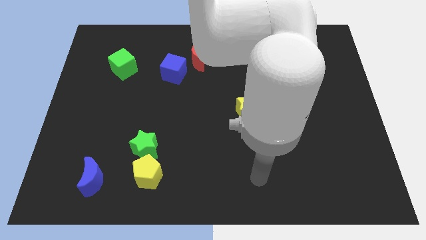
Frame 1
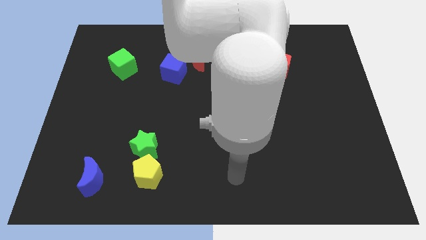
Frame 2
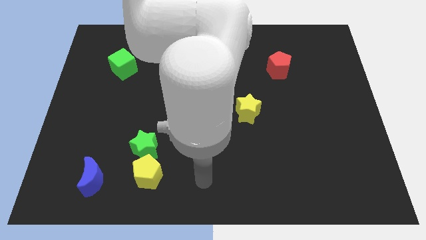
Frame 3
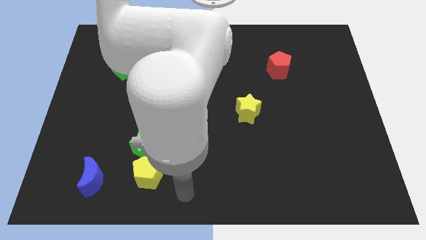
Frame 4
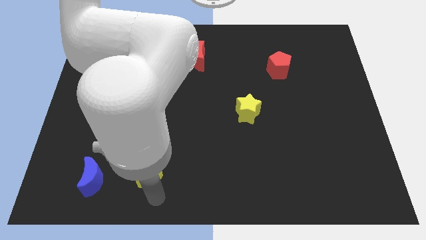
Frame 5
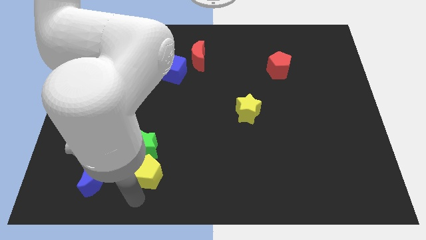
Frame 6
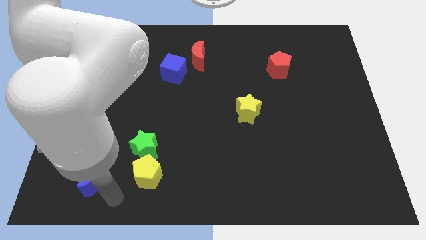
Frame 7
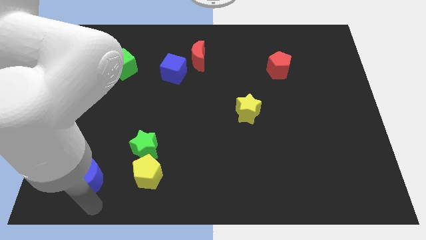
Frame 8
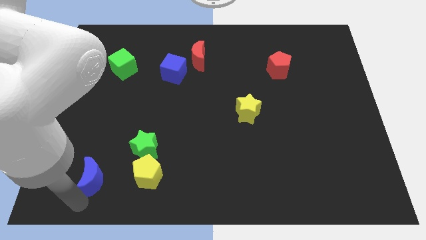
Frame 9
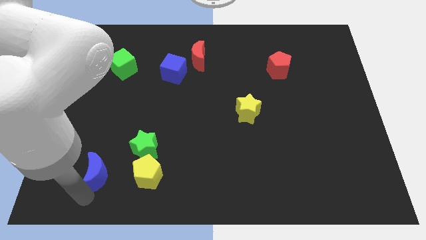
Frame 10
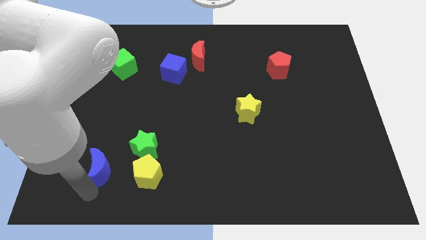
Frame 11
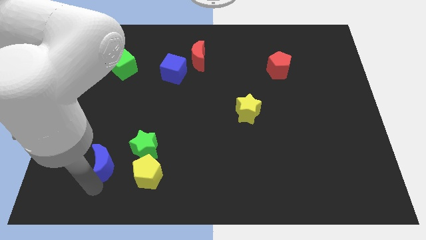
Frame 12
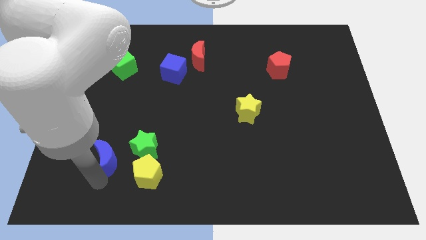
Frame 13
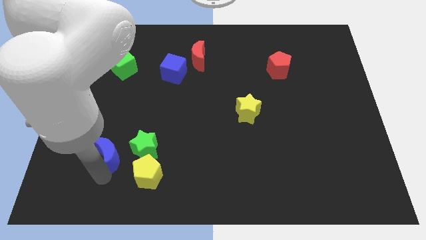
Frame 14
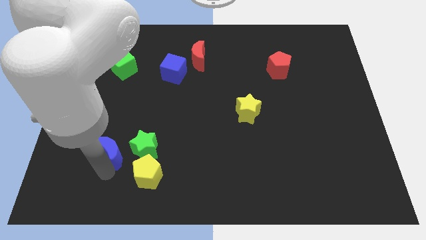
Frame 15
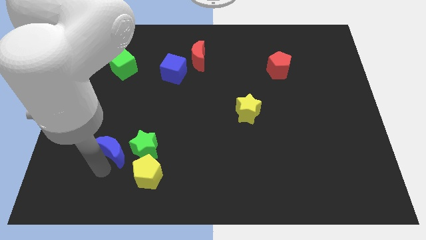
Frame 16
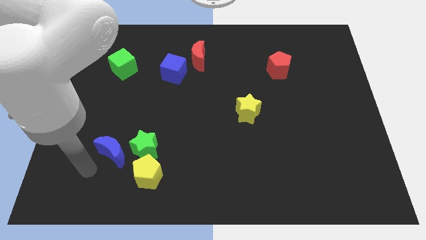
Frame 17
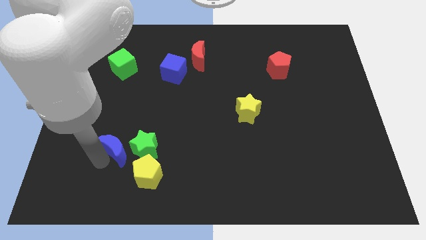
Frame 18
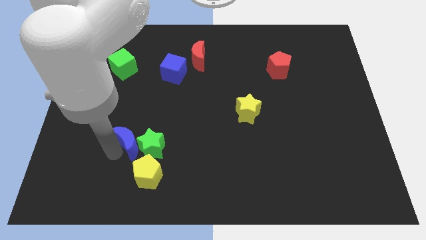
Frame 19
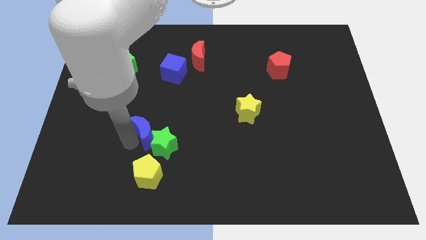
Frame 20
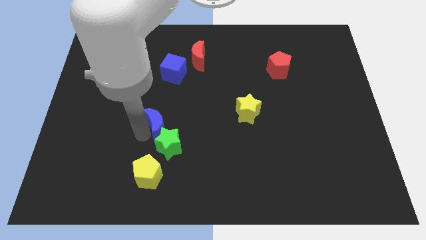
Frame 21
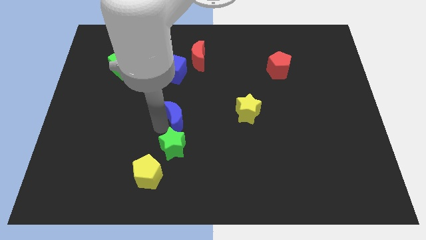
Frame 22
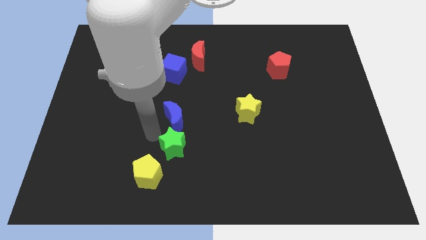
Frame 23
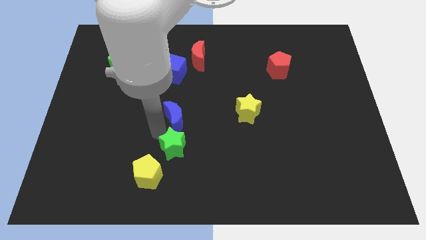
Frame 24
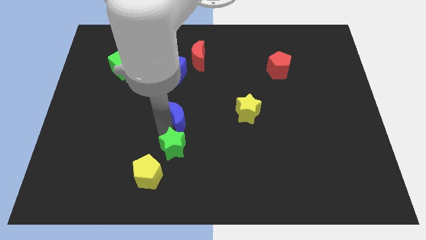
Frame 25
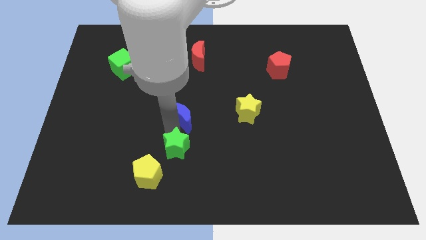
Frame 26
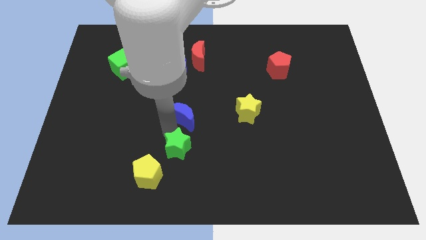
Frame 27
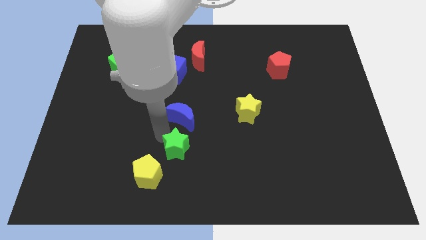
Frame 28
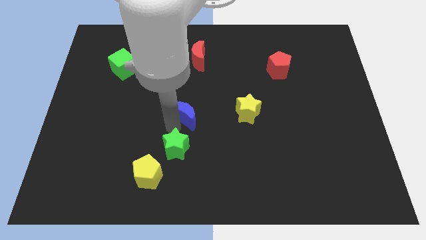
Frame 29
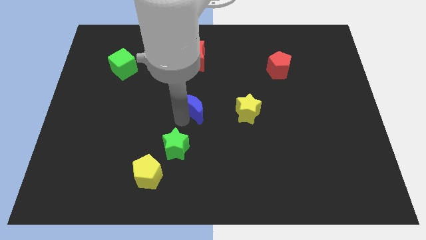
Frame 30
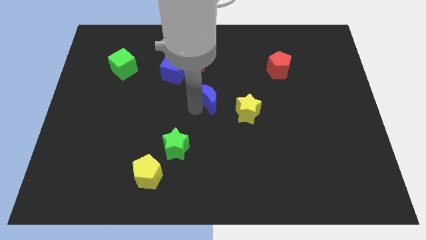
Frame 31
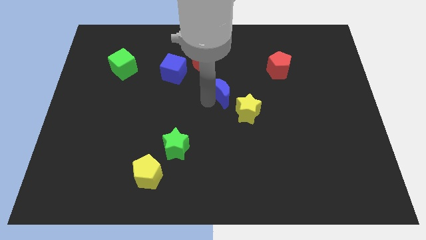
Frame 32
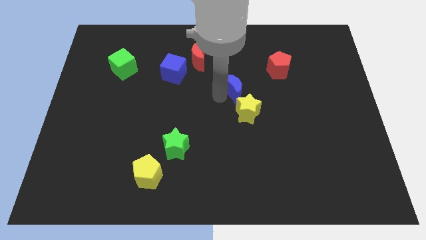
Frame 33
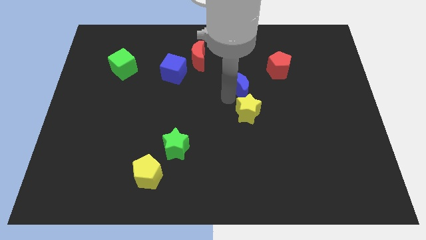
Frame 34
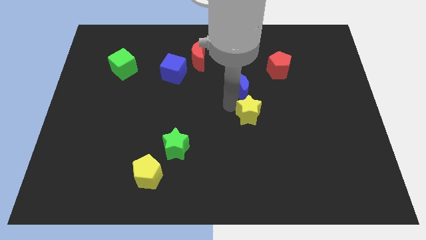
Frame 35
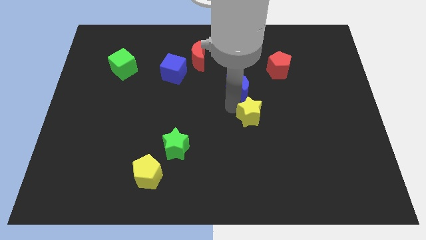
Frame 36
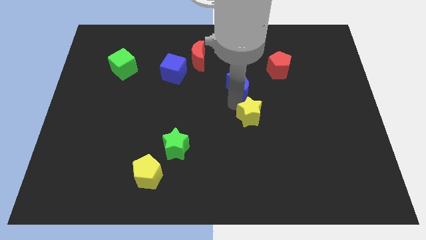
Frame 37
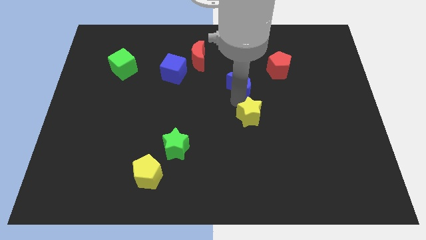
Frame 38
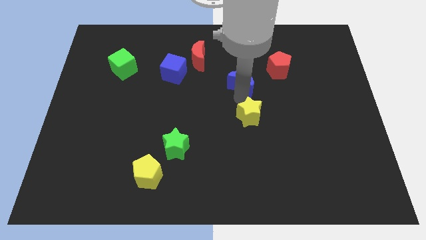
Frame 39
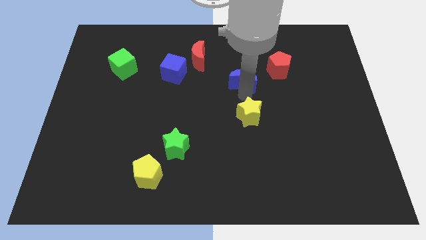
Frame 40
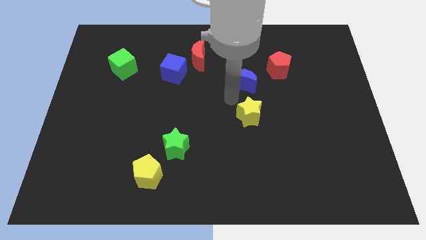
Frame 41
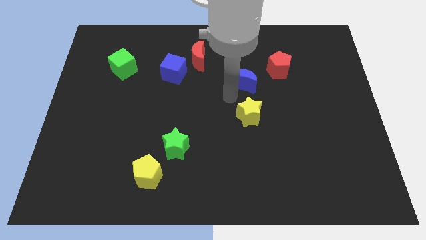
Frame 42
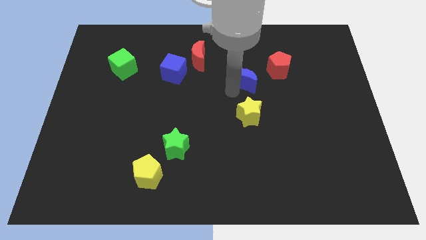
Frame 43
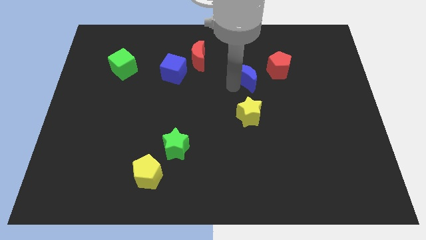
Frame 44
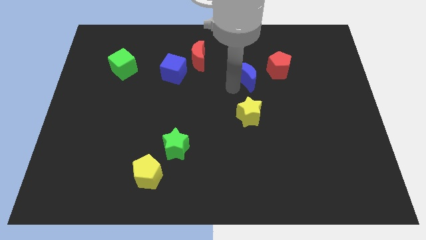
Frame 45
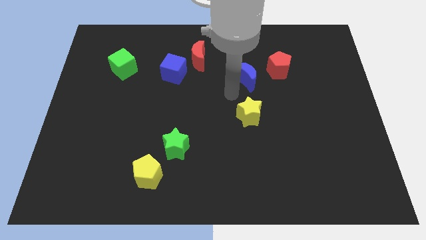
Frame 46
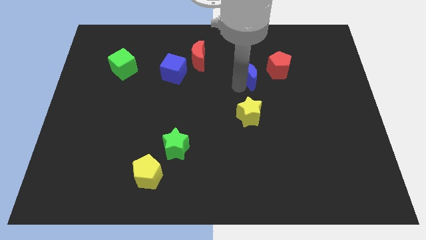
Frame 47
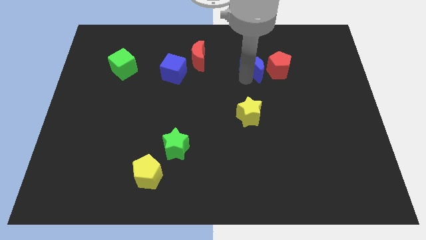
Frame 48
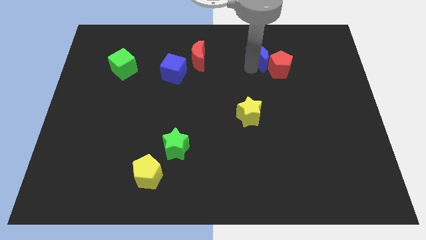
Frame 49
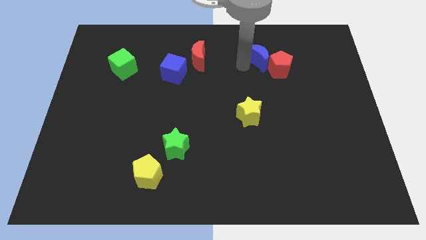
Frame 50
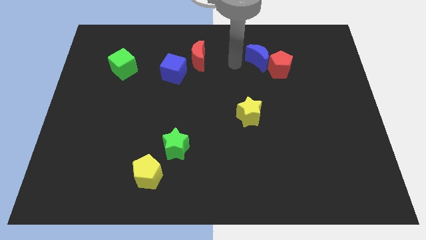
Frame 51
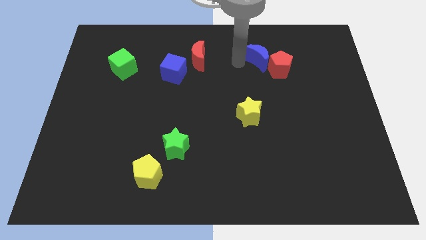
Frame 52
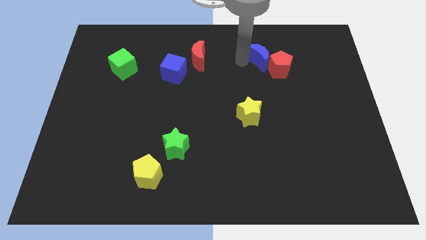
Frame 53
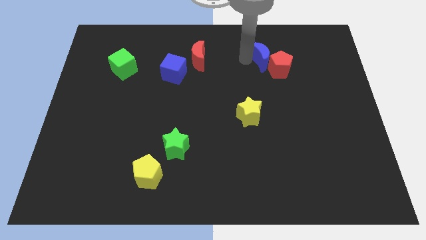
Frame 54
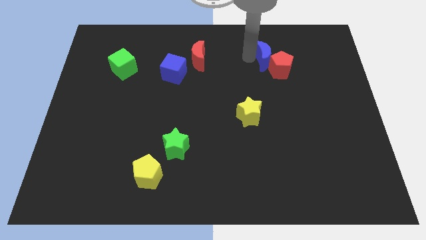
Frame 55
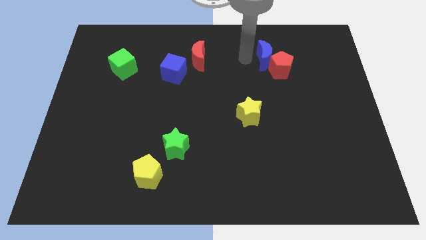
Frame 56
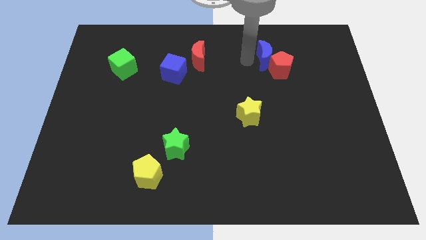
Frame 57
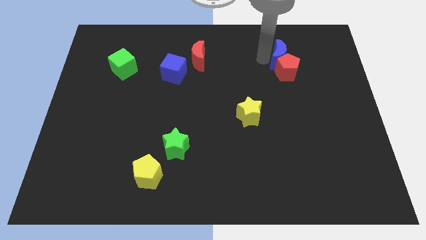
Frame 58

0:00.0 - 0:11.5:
put the blue moon to the top right of the red pentagon
